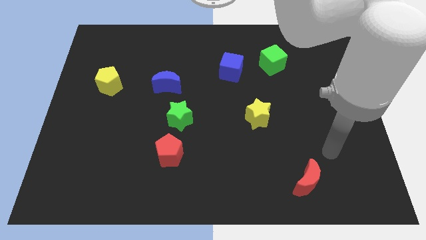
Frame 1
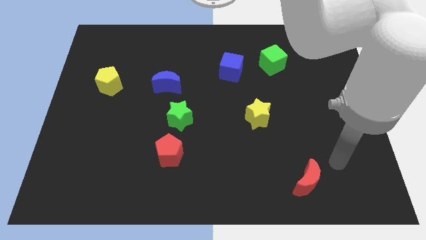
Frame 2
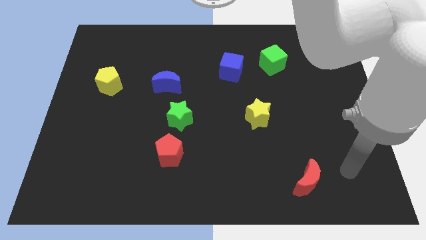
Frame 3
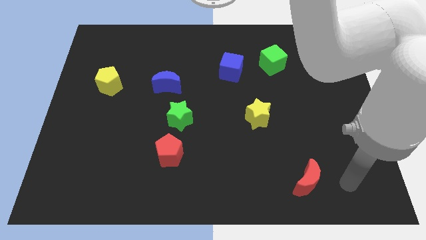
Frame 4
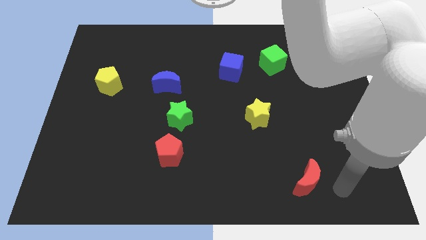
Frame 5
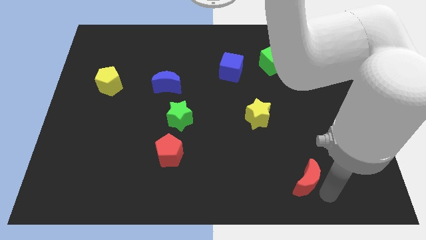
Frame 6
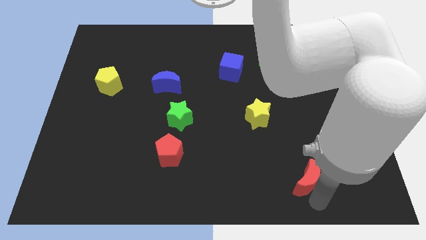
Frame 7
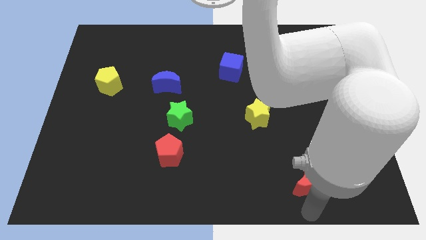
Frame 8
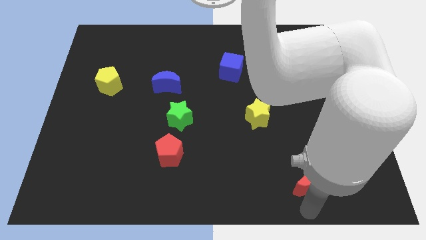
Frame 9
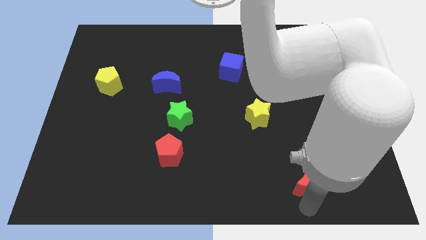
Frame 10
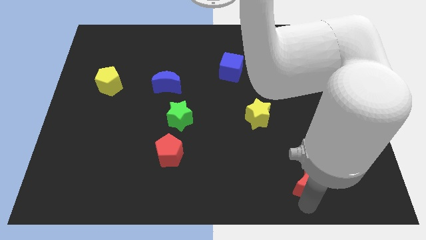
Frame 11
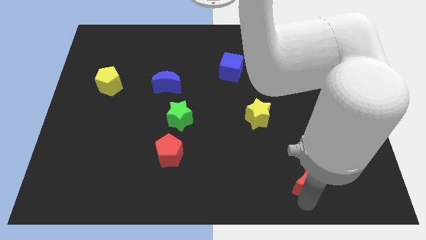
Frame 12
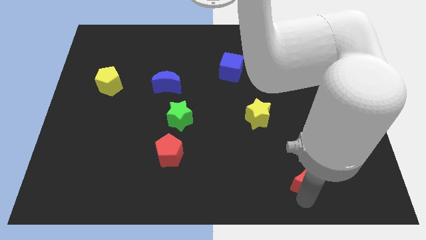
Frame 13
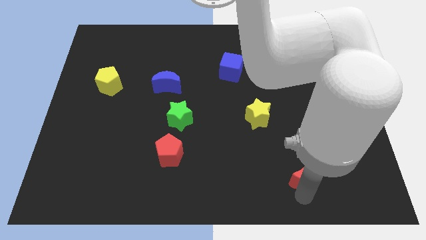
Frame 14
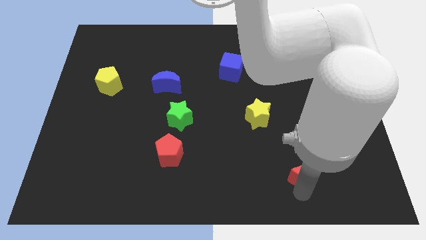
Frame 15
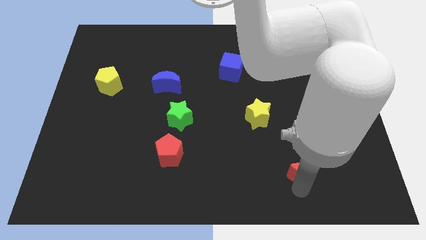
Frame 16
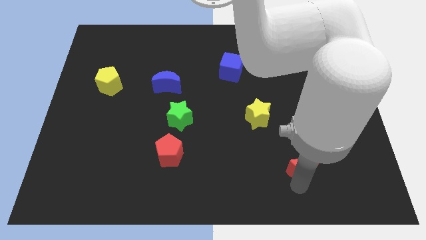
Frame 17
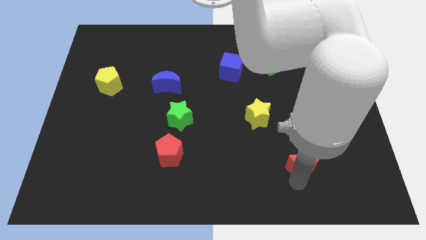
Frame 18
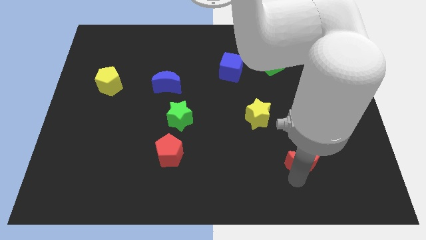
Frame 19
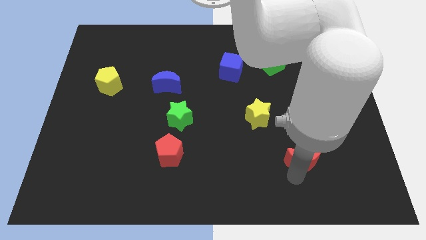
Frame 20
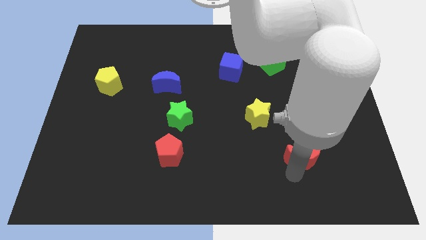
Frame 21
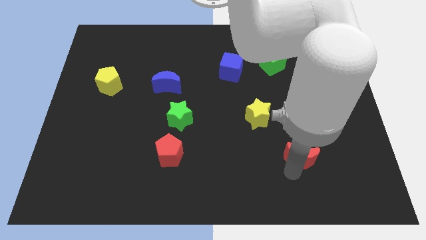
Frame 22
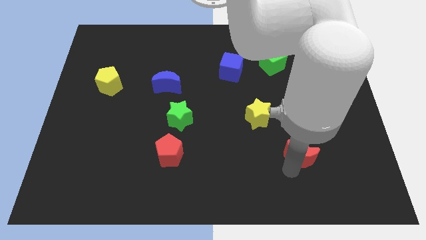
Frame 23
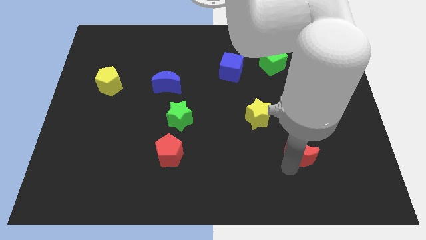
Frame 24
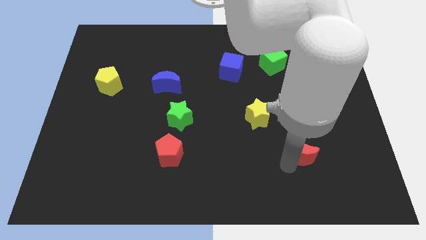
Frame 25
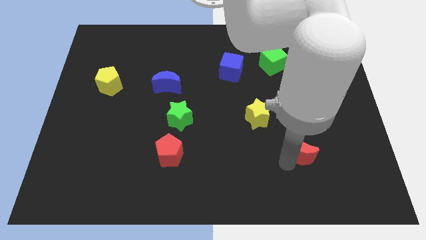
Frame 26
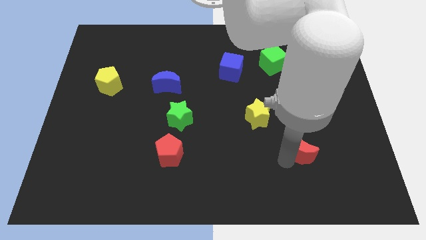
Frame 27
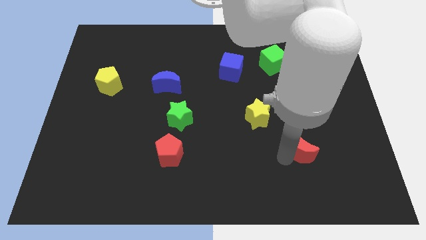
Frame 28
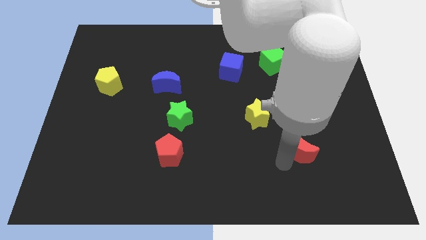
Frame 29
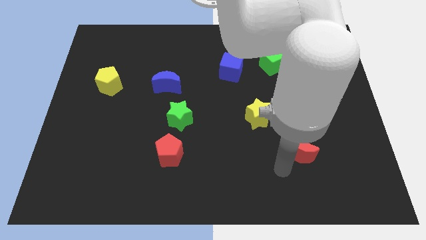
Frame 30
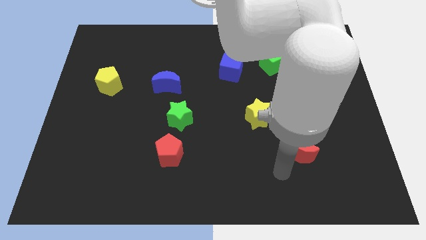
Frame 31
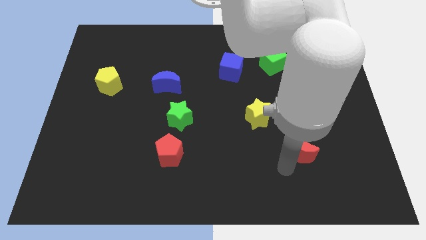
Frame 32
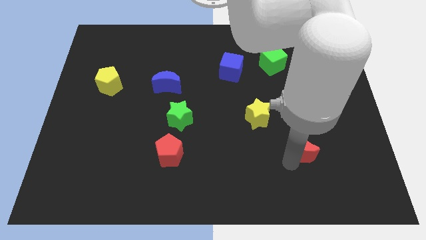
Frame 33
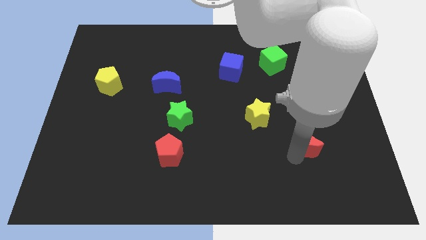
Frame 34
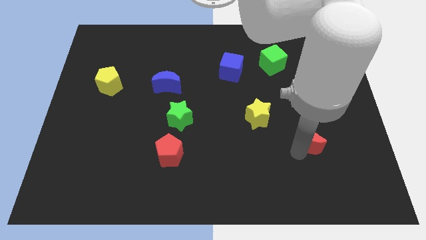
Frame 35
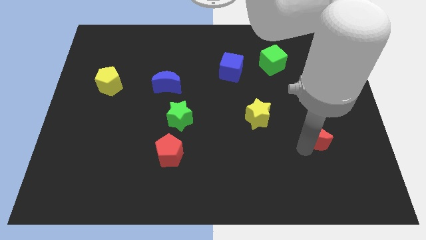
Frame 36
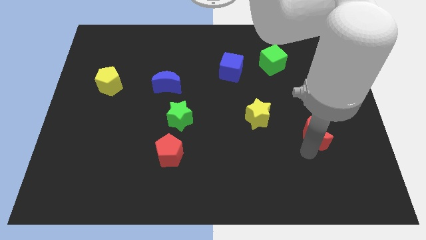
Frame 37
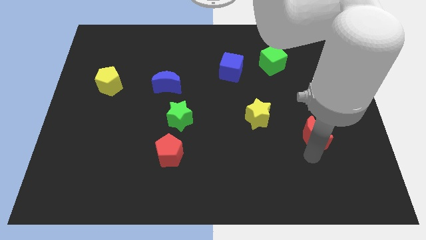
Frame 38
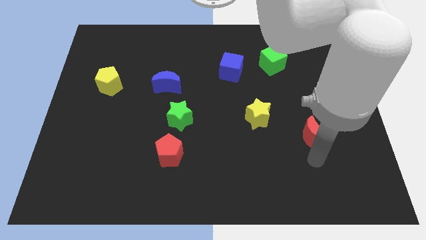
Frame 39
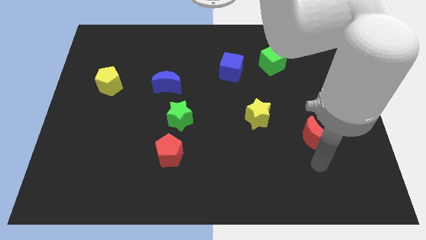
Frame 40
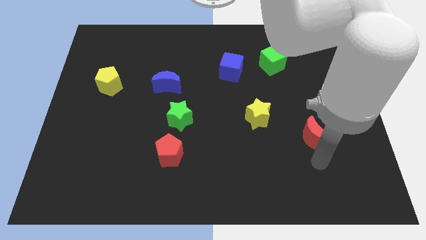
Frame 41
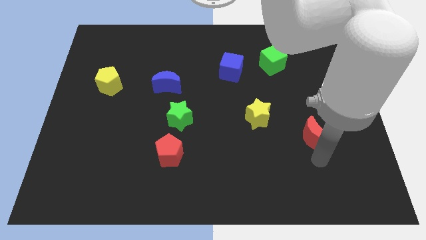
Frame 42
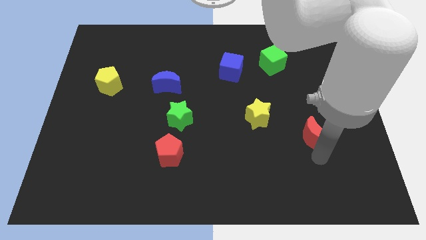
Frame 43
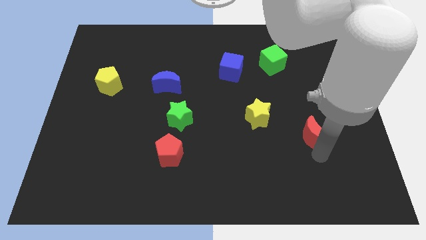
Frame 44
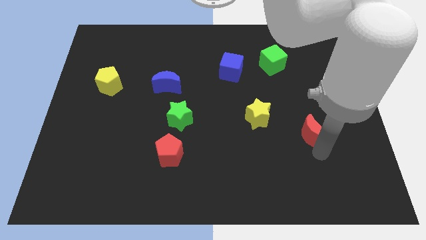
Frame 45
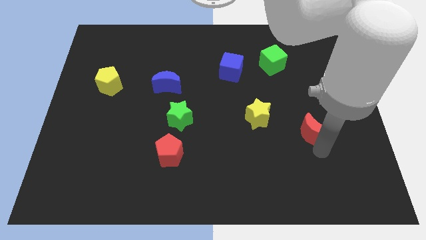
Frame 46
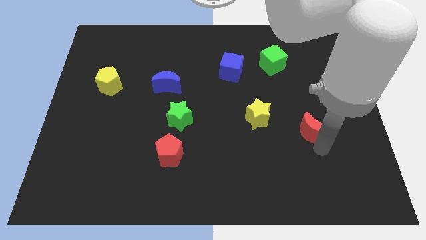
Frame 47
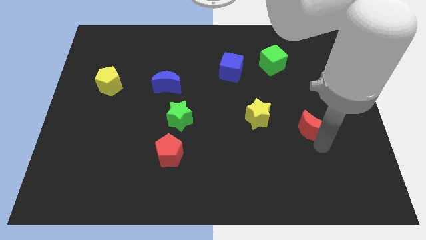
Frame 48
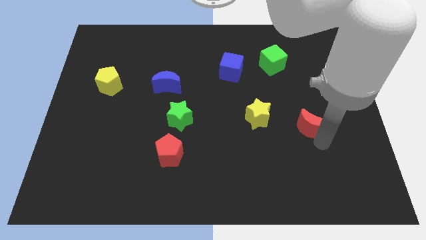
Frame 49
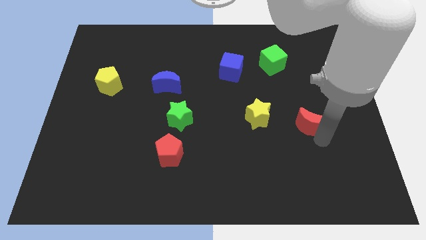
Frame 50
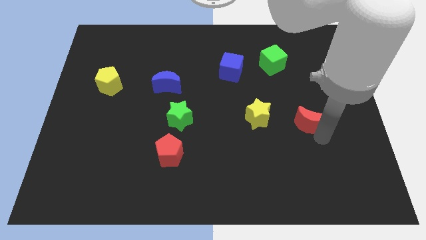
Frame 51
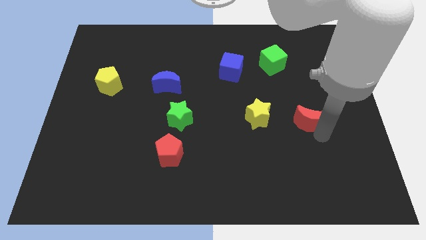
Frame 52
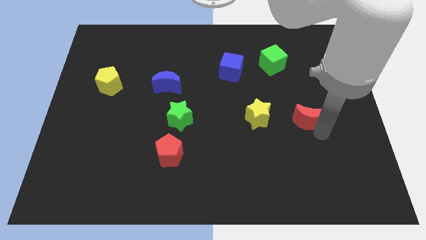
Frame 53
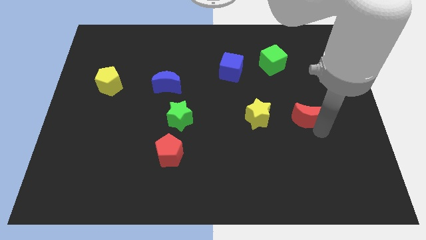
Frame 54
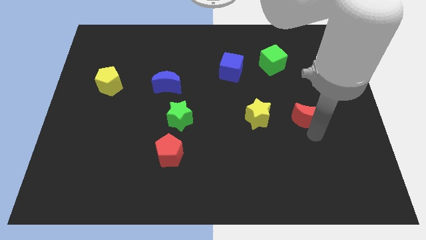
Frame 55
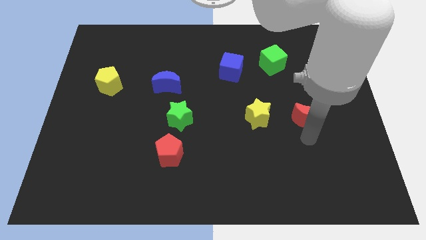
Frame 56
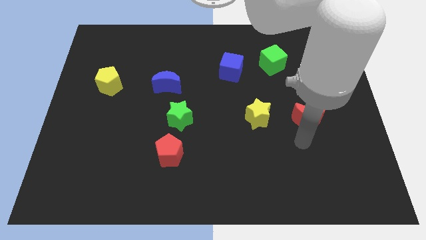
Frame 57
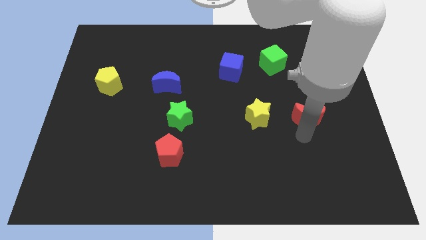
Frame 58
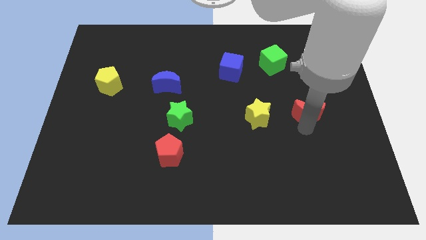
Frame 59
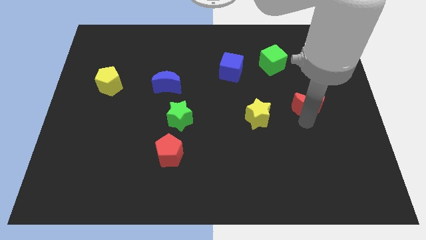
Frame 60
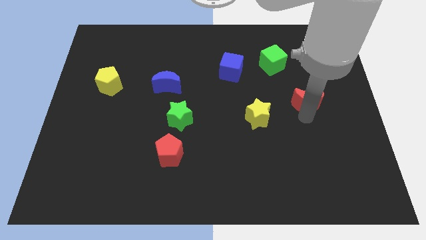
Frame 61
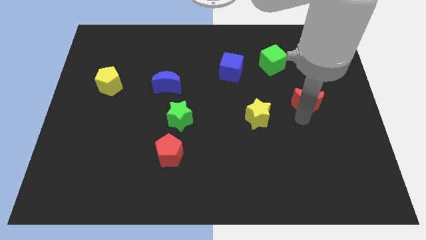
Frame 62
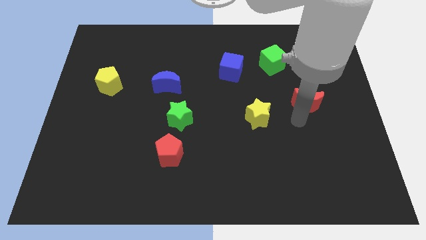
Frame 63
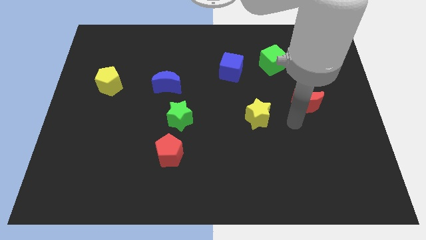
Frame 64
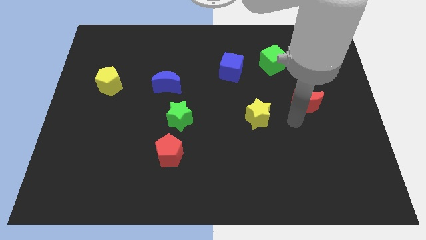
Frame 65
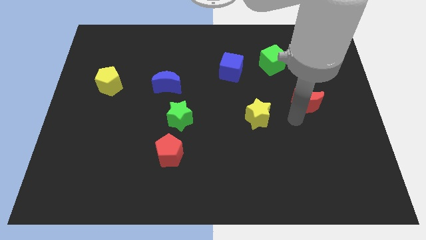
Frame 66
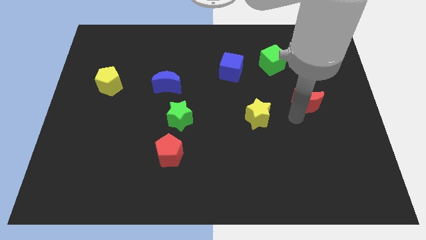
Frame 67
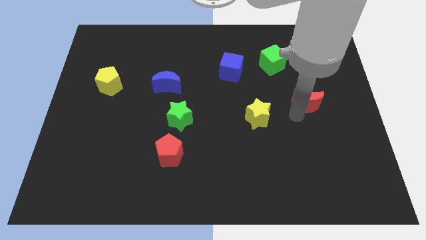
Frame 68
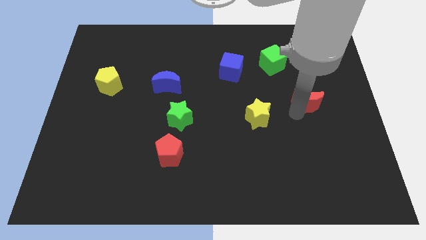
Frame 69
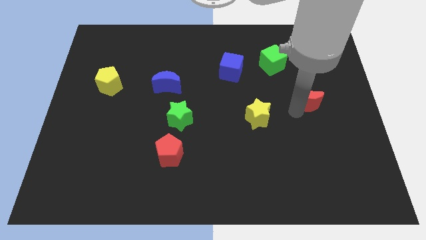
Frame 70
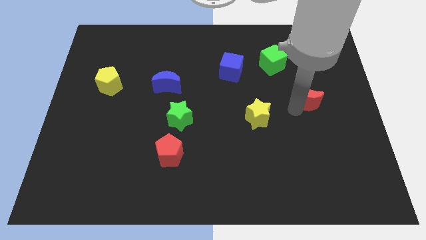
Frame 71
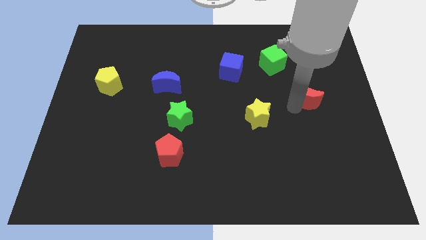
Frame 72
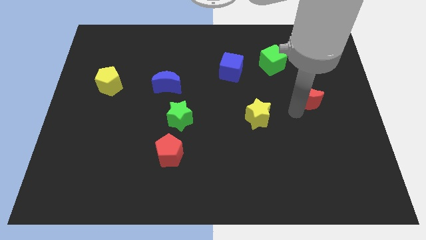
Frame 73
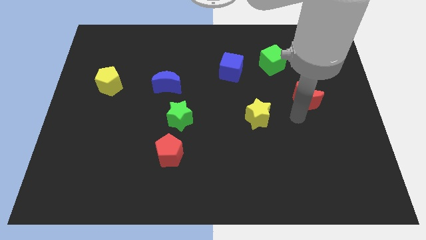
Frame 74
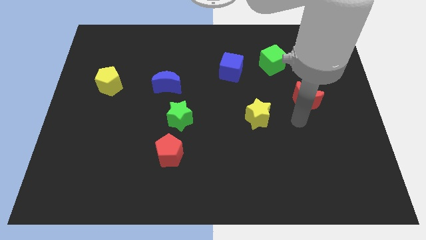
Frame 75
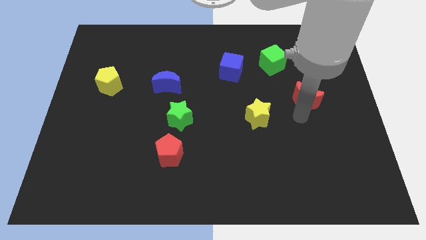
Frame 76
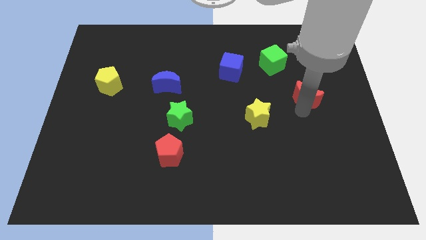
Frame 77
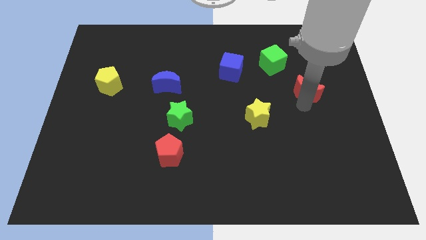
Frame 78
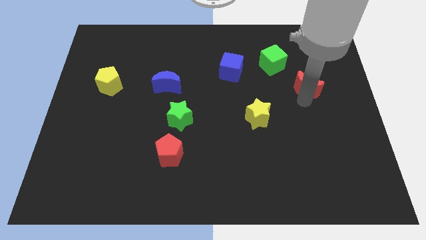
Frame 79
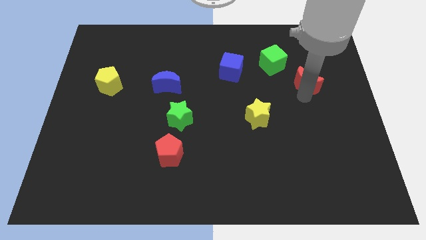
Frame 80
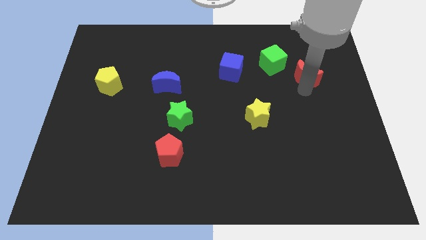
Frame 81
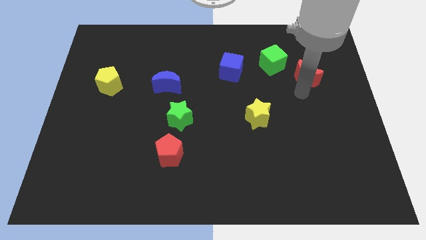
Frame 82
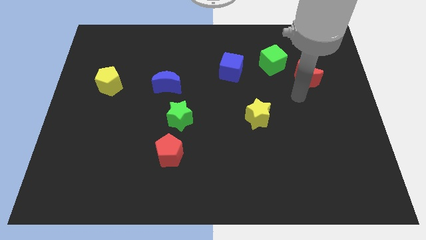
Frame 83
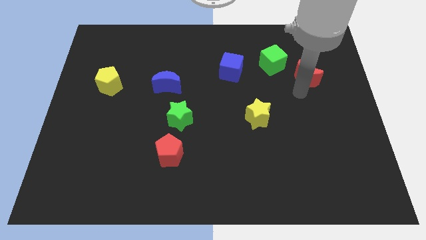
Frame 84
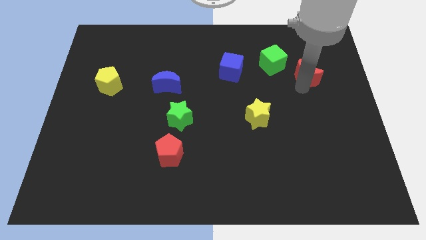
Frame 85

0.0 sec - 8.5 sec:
put the red moon to the right of the green cube
